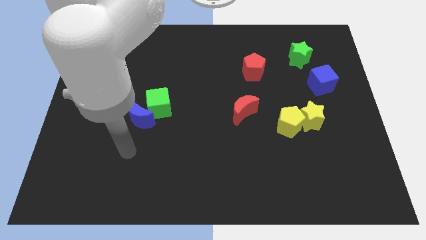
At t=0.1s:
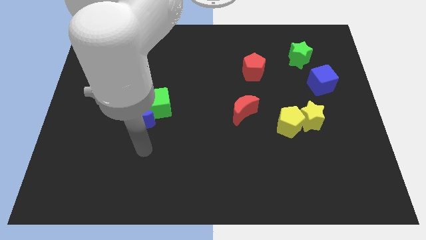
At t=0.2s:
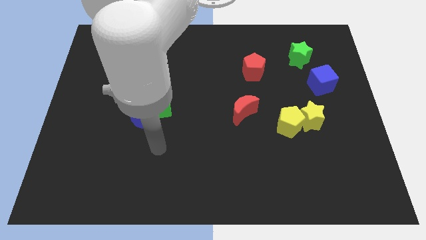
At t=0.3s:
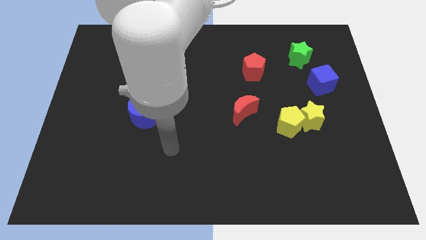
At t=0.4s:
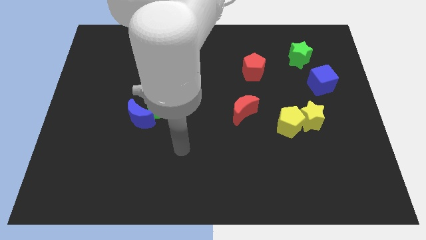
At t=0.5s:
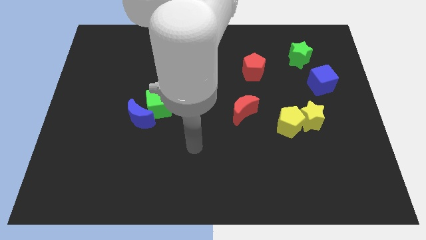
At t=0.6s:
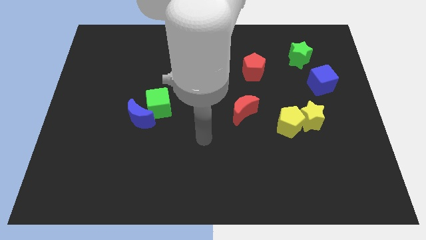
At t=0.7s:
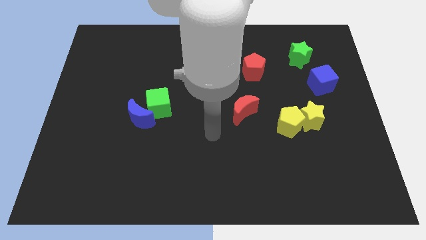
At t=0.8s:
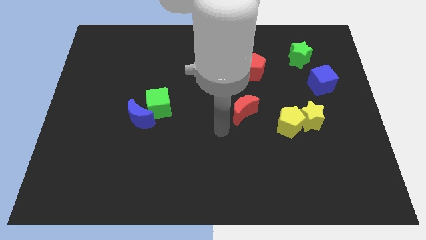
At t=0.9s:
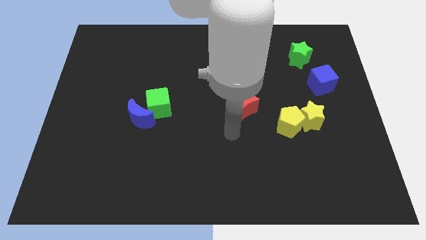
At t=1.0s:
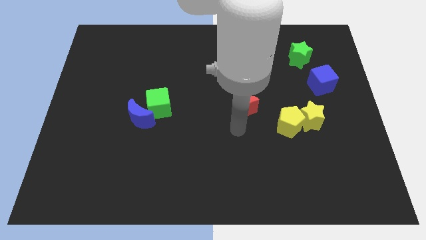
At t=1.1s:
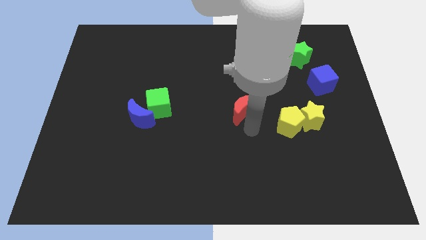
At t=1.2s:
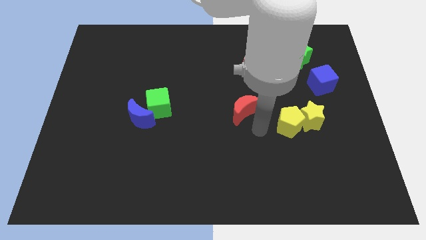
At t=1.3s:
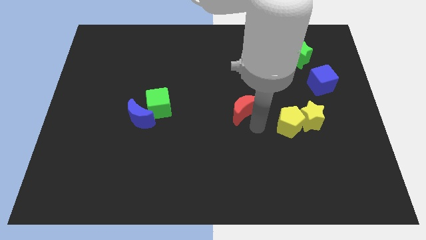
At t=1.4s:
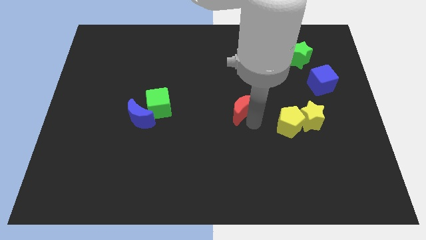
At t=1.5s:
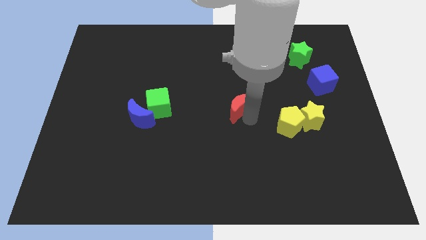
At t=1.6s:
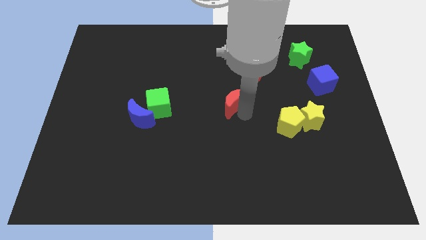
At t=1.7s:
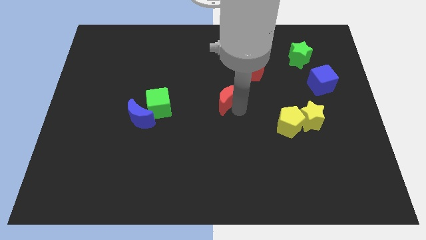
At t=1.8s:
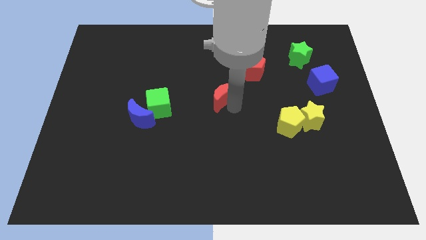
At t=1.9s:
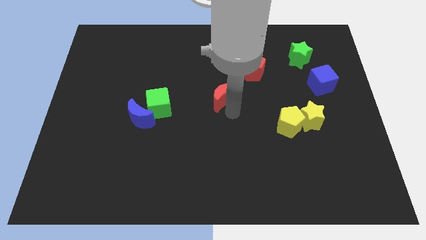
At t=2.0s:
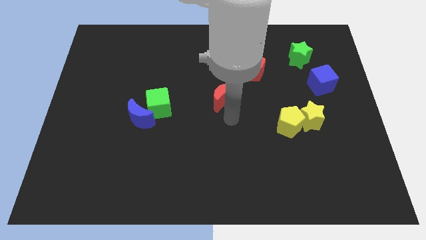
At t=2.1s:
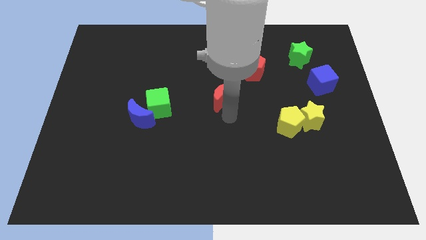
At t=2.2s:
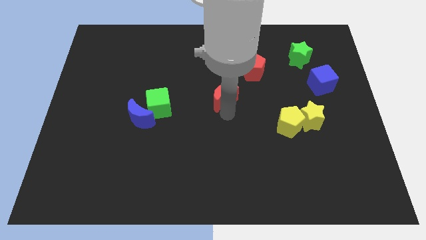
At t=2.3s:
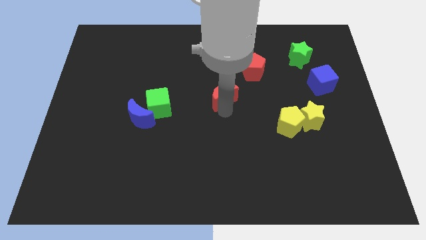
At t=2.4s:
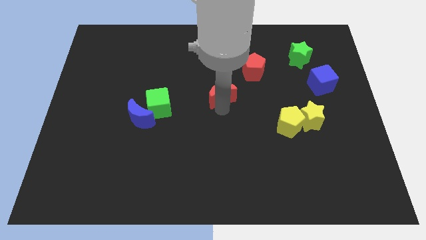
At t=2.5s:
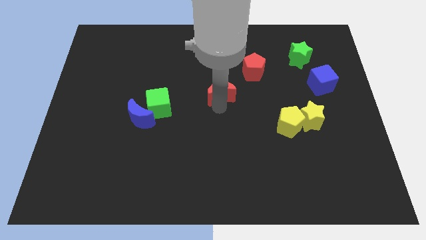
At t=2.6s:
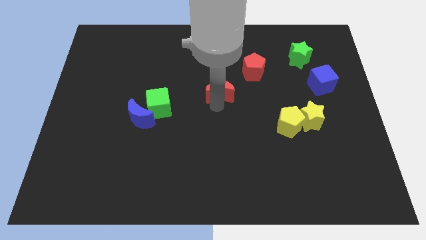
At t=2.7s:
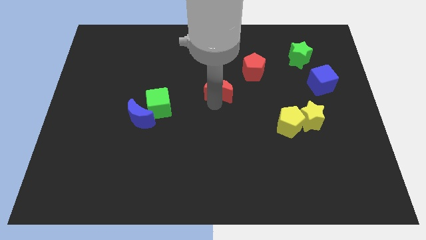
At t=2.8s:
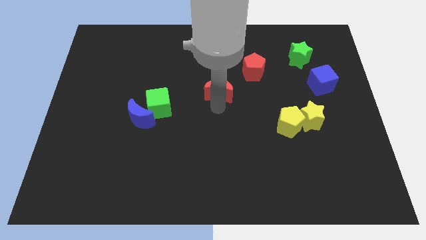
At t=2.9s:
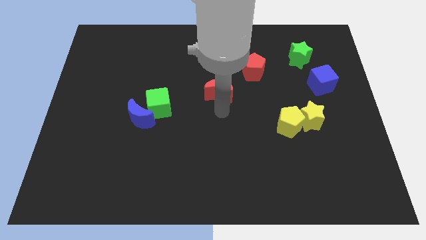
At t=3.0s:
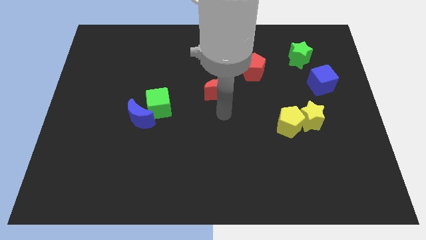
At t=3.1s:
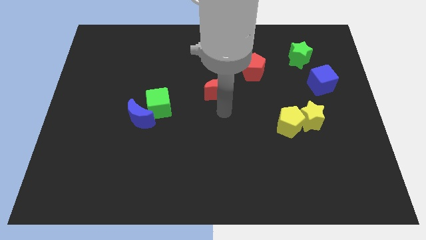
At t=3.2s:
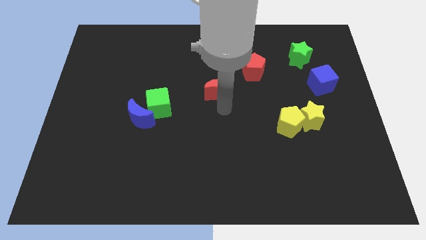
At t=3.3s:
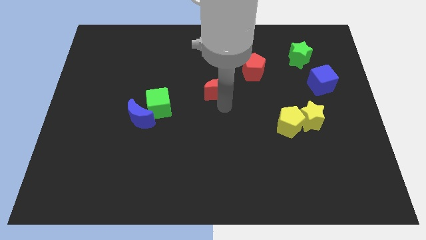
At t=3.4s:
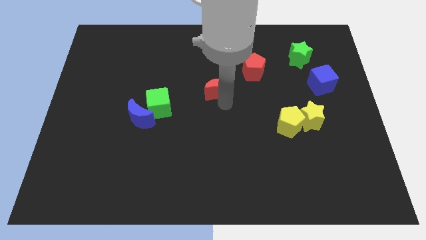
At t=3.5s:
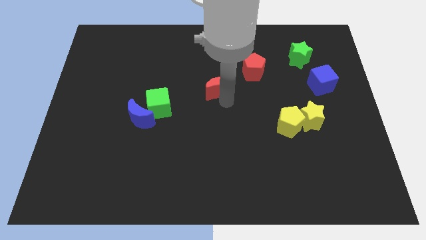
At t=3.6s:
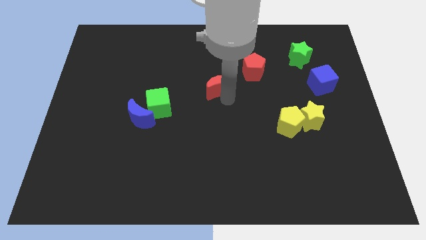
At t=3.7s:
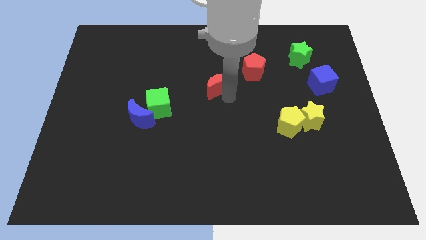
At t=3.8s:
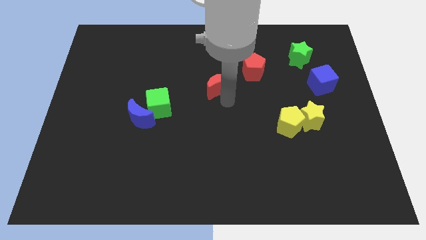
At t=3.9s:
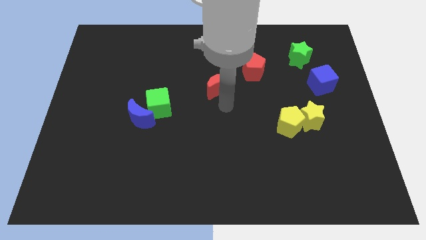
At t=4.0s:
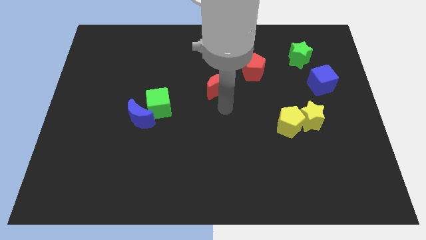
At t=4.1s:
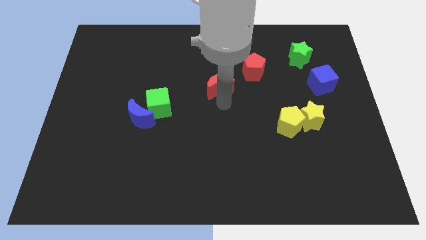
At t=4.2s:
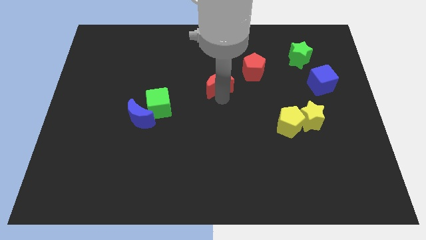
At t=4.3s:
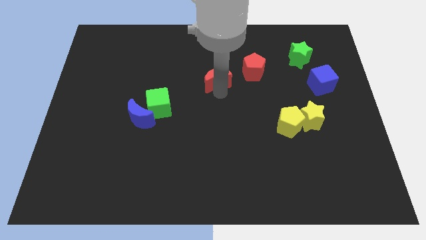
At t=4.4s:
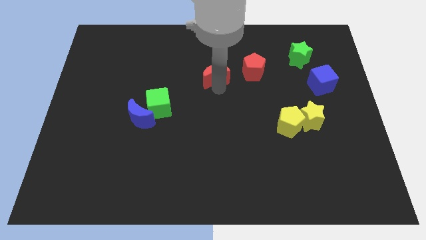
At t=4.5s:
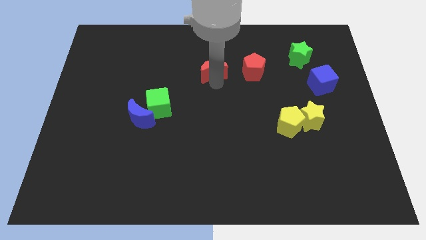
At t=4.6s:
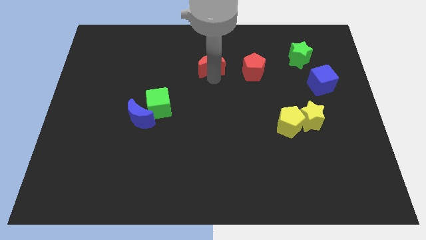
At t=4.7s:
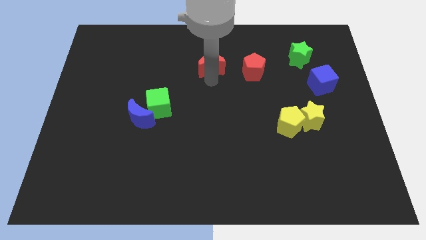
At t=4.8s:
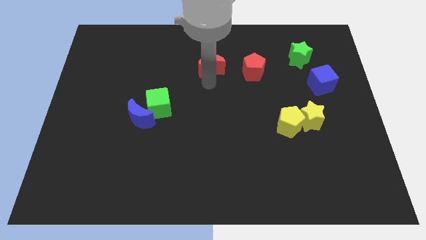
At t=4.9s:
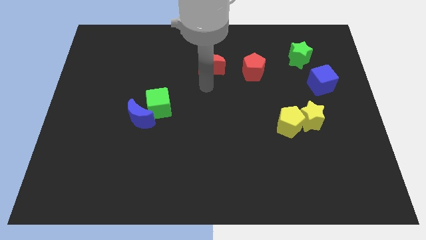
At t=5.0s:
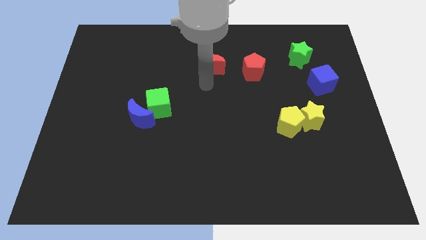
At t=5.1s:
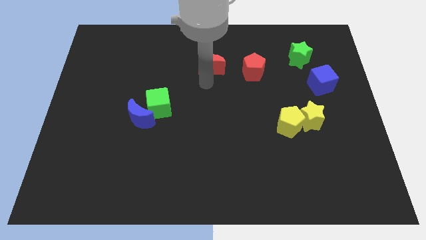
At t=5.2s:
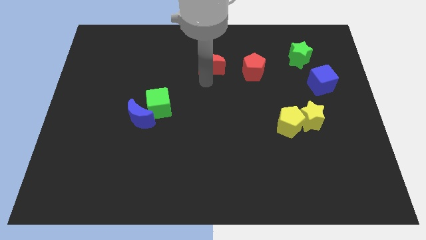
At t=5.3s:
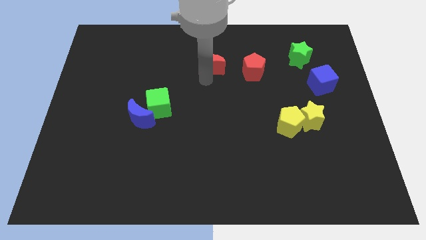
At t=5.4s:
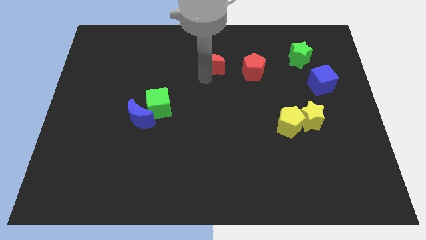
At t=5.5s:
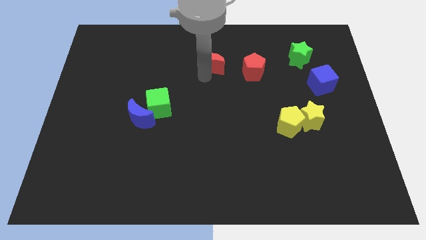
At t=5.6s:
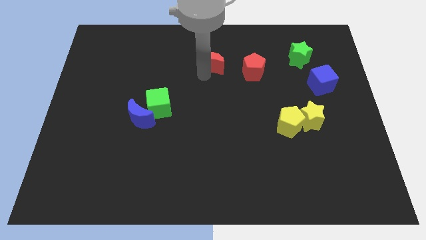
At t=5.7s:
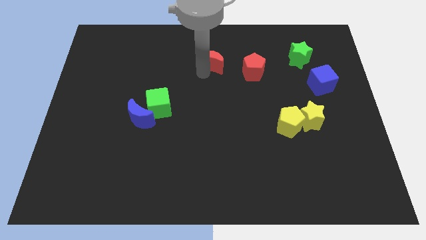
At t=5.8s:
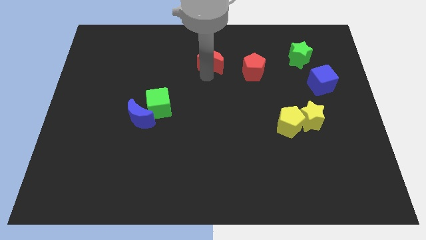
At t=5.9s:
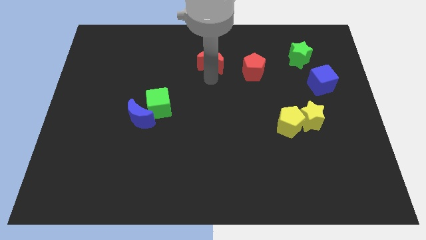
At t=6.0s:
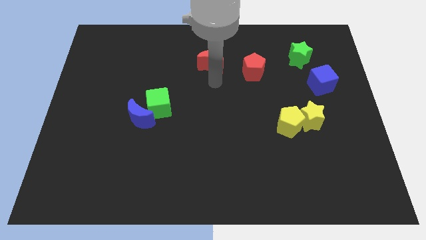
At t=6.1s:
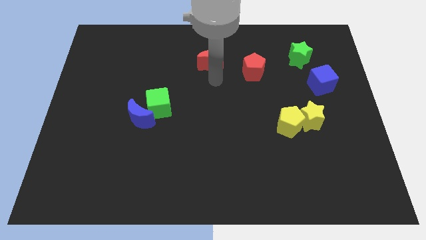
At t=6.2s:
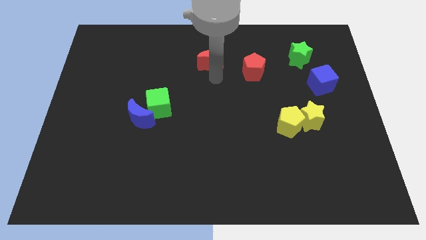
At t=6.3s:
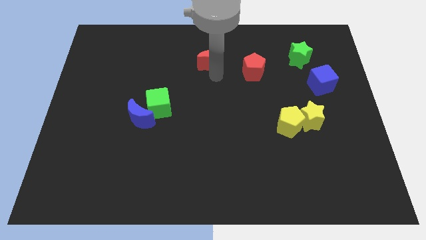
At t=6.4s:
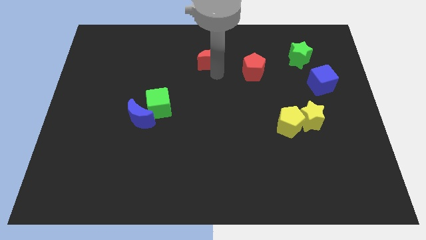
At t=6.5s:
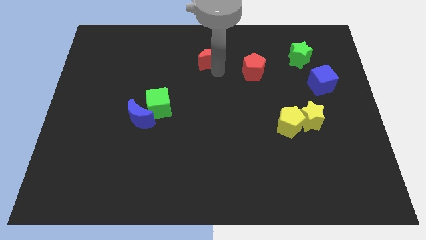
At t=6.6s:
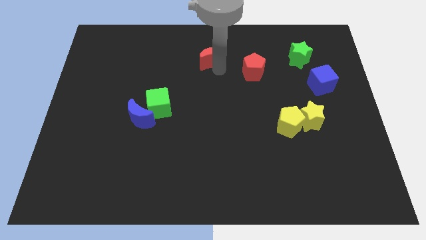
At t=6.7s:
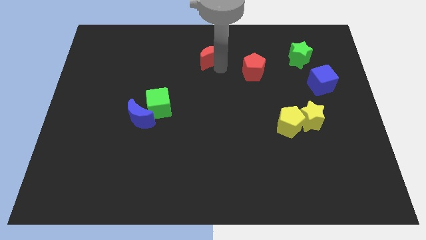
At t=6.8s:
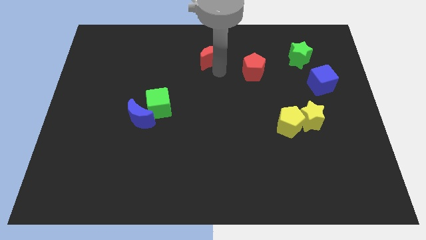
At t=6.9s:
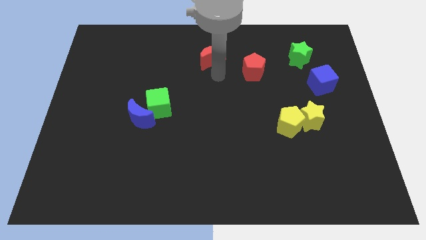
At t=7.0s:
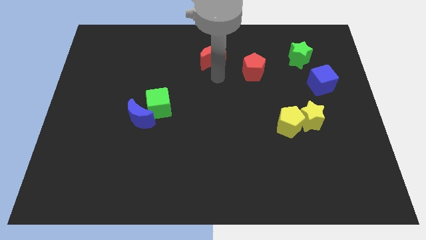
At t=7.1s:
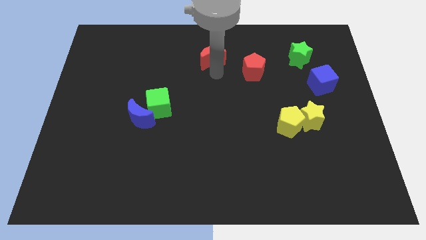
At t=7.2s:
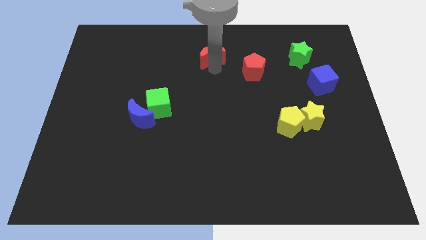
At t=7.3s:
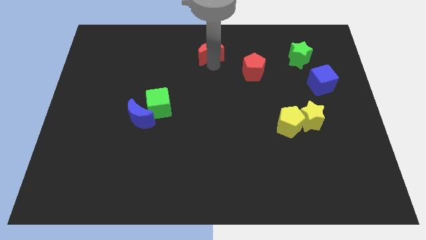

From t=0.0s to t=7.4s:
put the red moon to the top side
